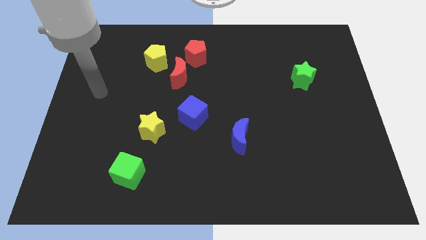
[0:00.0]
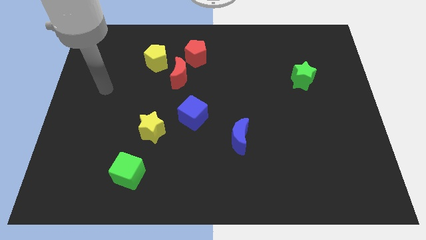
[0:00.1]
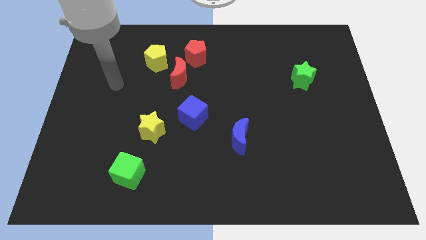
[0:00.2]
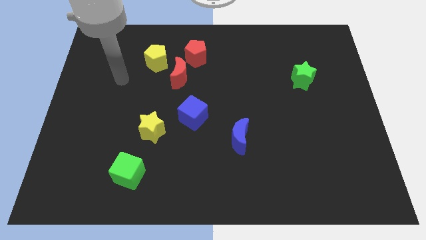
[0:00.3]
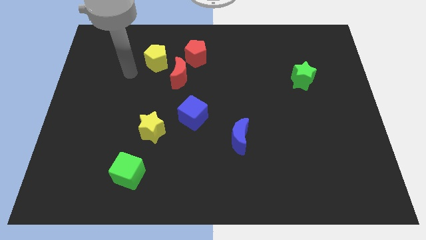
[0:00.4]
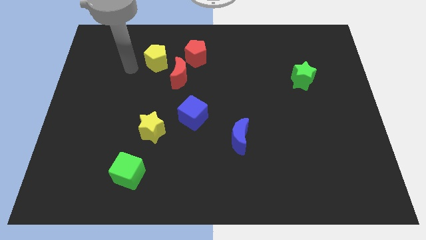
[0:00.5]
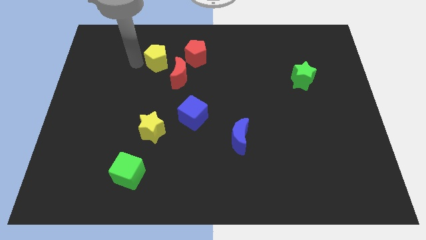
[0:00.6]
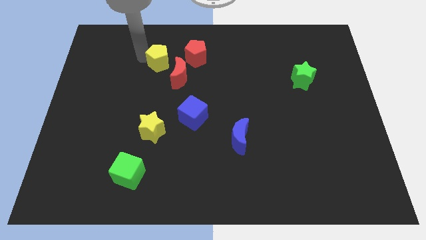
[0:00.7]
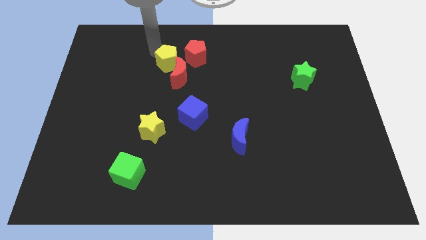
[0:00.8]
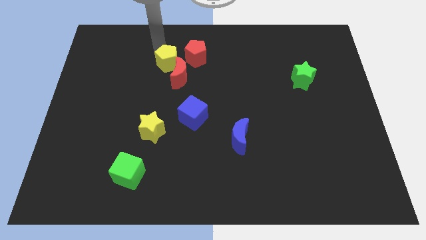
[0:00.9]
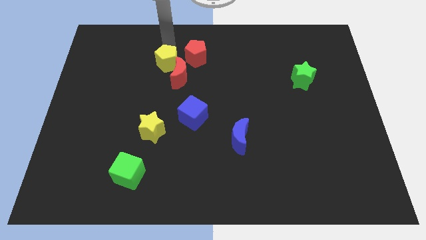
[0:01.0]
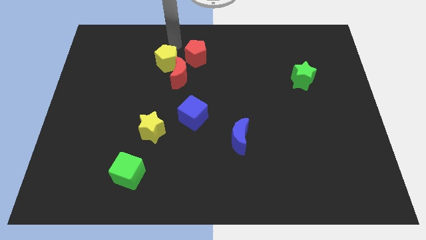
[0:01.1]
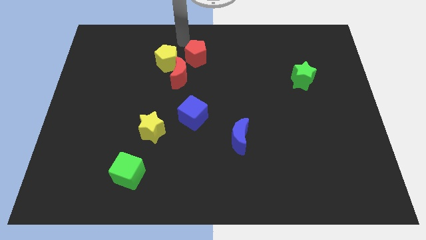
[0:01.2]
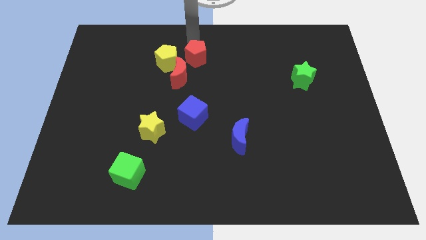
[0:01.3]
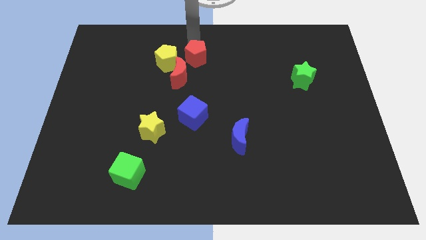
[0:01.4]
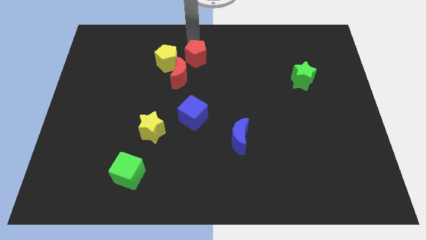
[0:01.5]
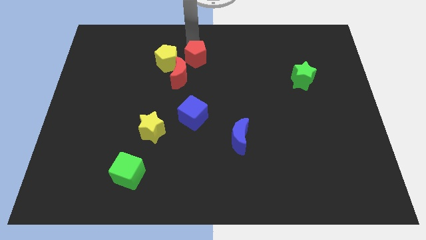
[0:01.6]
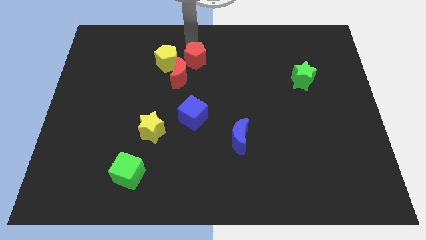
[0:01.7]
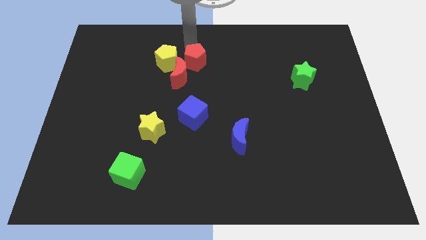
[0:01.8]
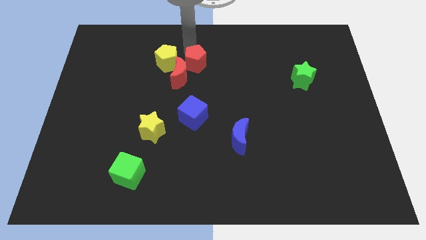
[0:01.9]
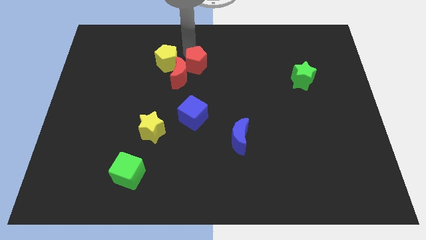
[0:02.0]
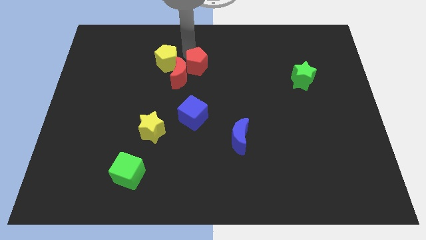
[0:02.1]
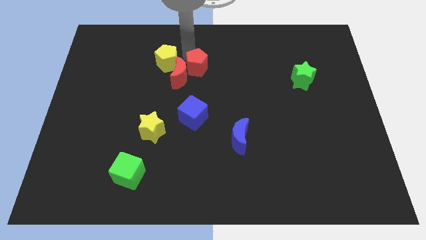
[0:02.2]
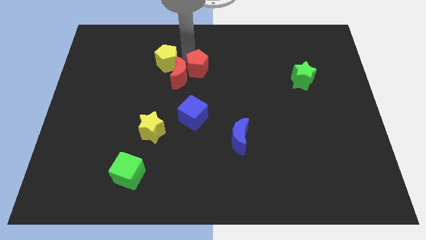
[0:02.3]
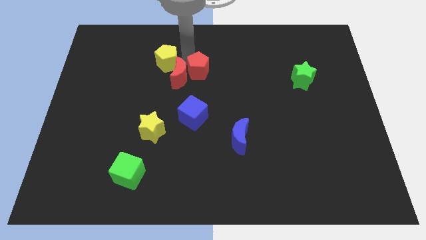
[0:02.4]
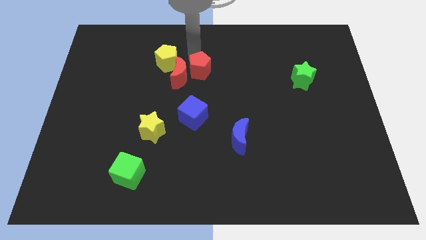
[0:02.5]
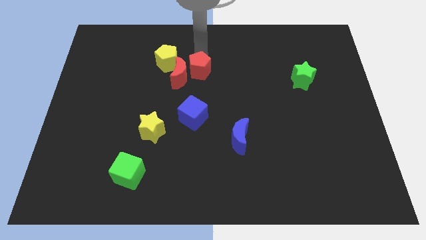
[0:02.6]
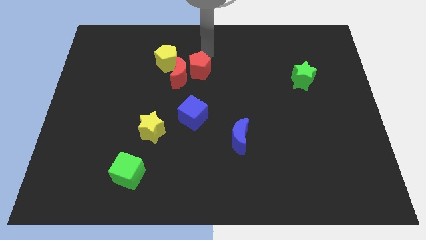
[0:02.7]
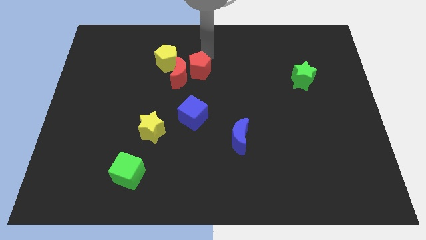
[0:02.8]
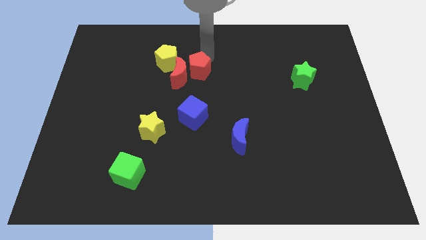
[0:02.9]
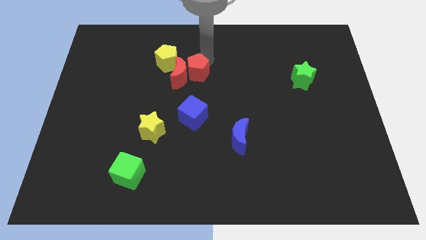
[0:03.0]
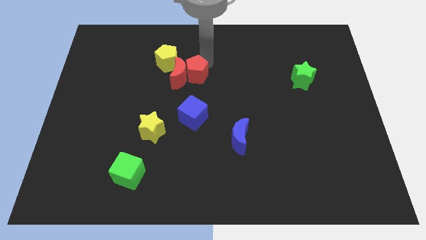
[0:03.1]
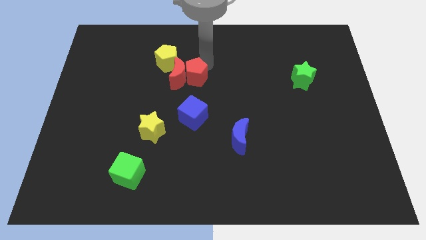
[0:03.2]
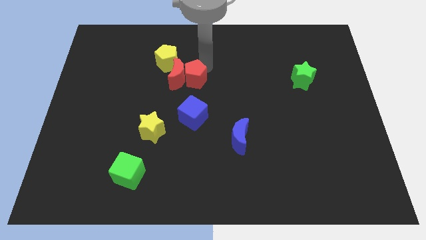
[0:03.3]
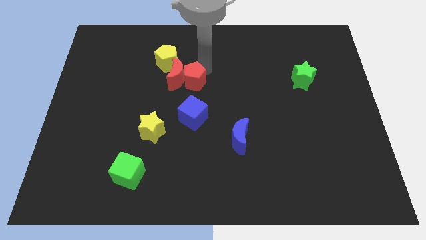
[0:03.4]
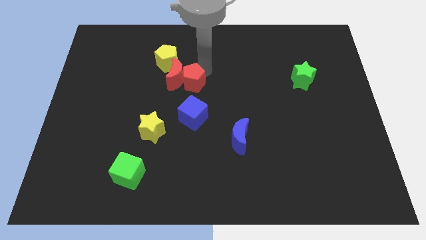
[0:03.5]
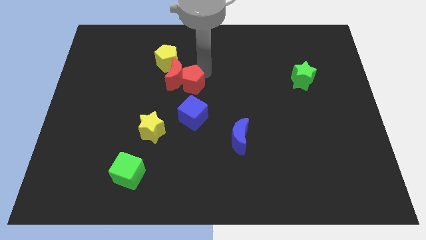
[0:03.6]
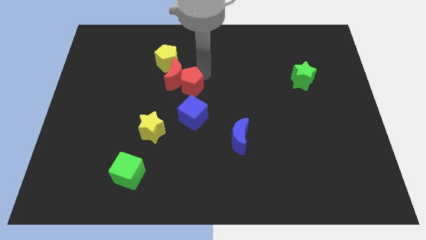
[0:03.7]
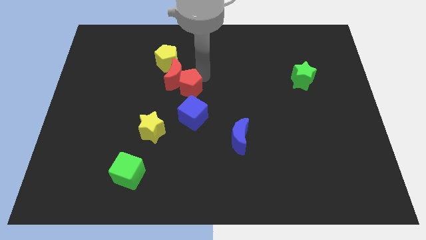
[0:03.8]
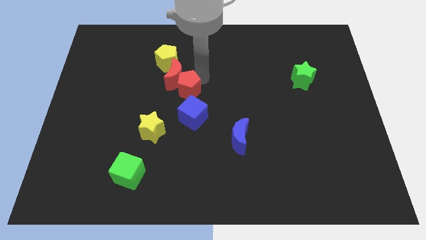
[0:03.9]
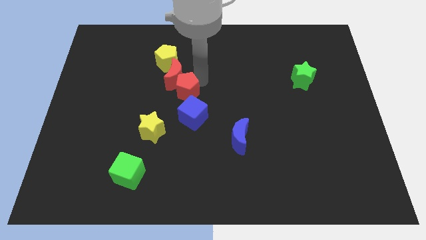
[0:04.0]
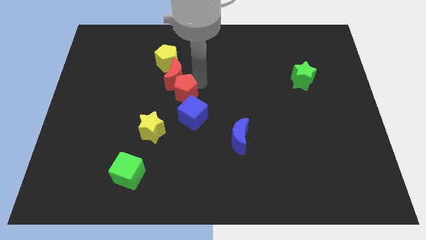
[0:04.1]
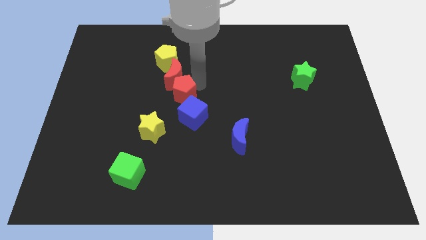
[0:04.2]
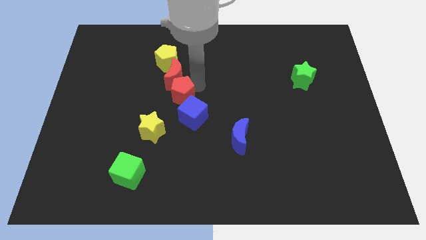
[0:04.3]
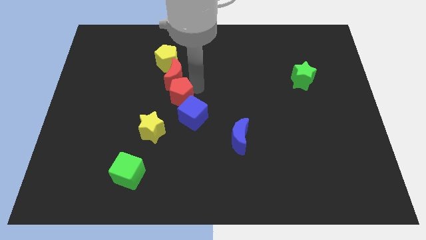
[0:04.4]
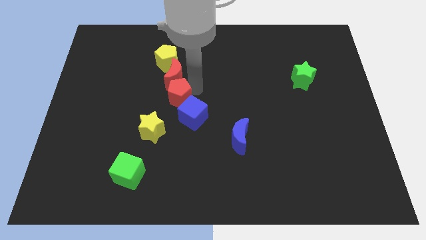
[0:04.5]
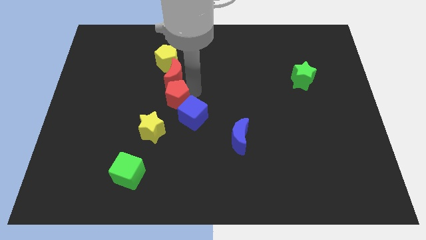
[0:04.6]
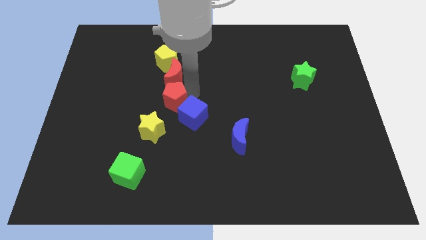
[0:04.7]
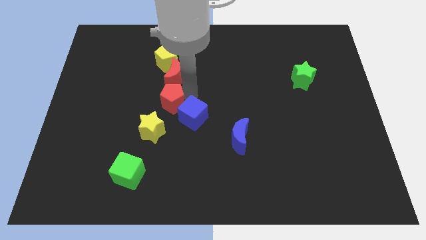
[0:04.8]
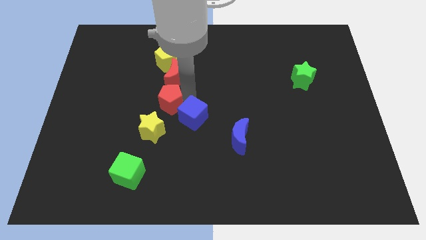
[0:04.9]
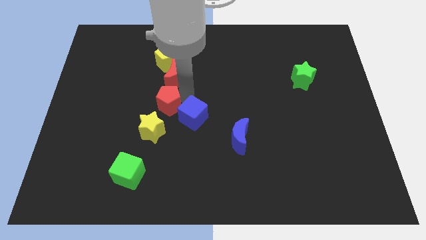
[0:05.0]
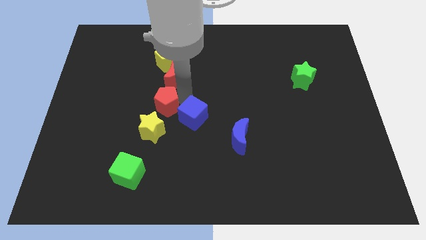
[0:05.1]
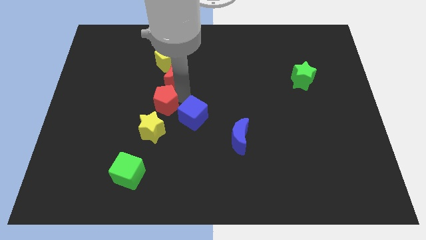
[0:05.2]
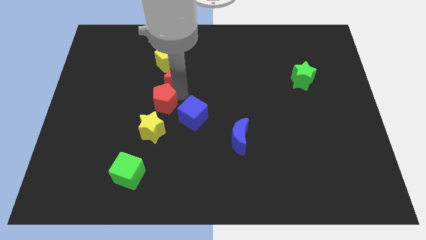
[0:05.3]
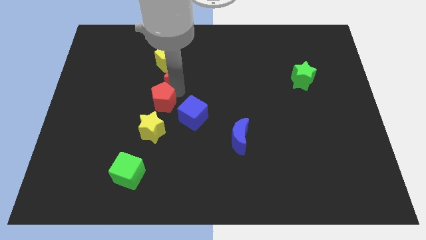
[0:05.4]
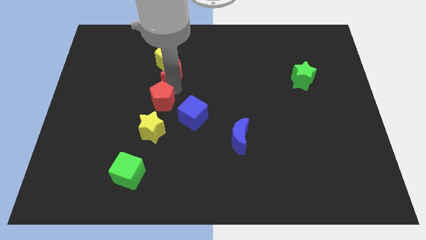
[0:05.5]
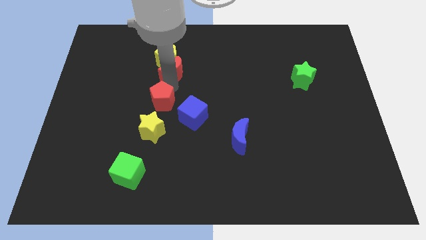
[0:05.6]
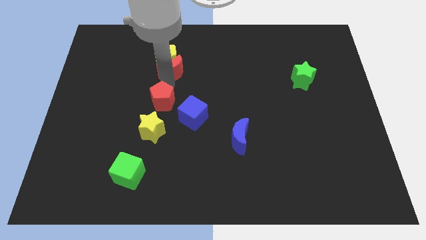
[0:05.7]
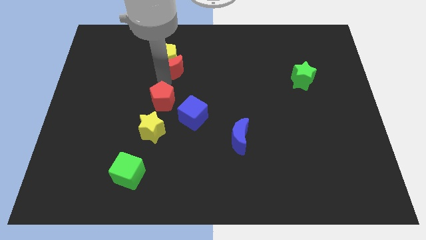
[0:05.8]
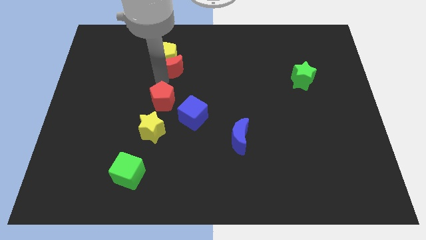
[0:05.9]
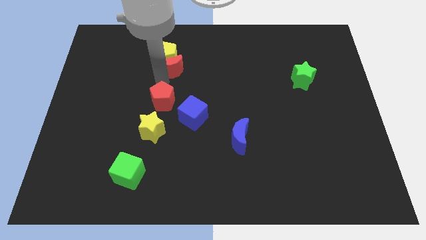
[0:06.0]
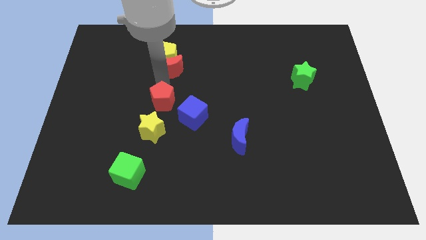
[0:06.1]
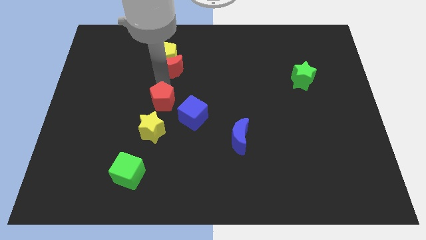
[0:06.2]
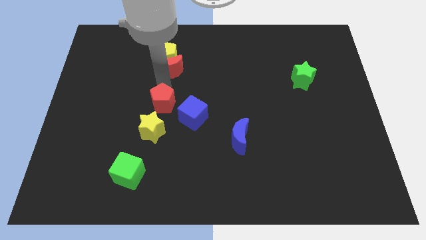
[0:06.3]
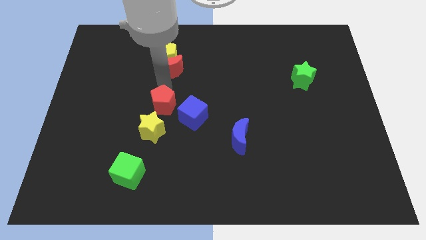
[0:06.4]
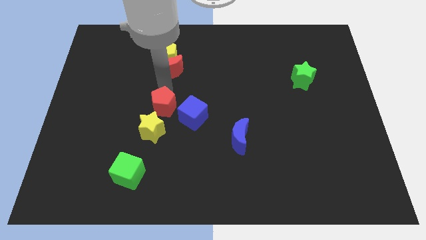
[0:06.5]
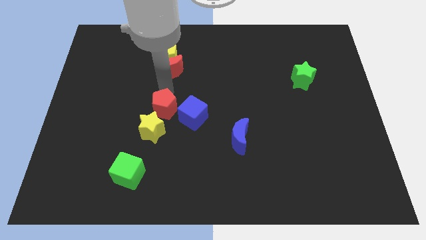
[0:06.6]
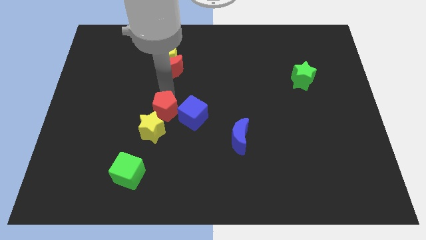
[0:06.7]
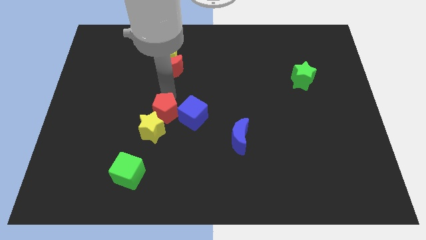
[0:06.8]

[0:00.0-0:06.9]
put the red pentagon next to the yellow star

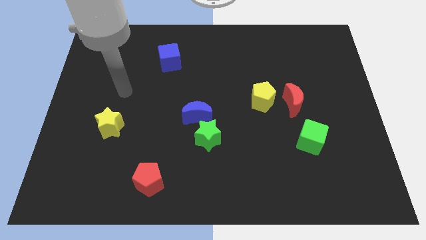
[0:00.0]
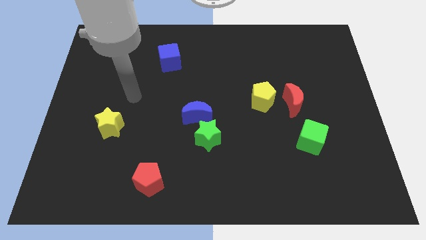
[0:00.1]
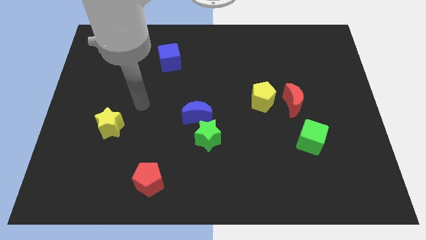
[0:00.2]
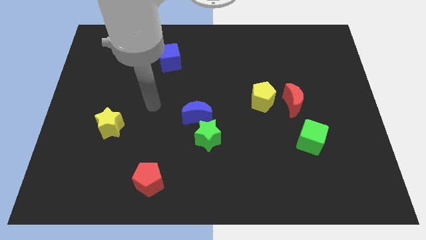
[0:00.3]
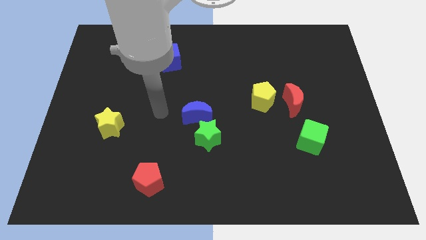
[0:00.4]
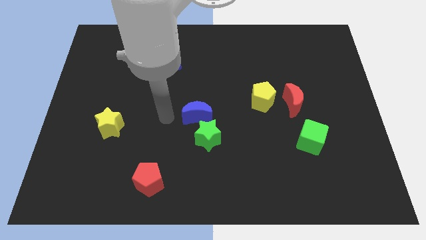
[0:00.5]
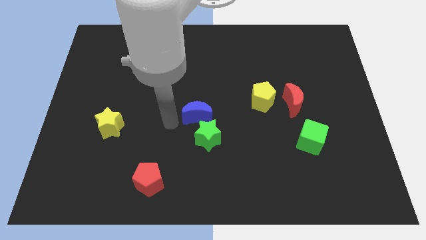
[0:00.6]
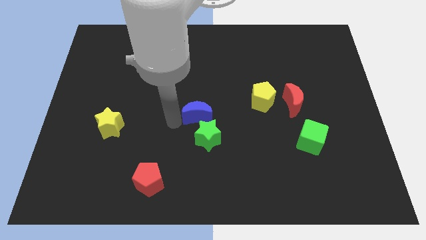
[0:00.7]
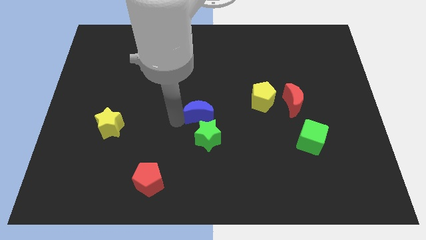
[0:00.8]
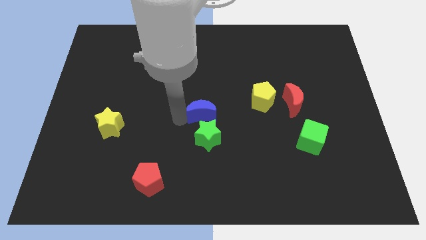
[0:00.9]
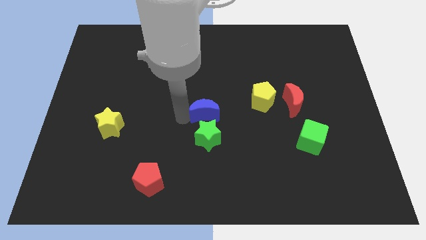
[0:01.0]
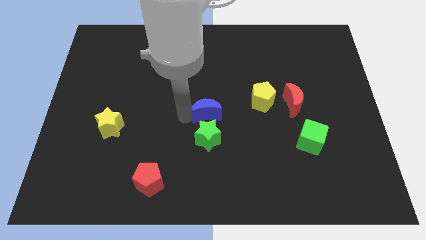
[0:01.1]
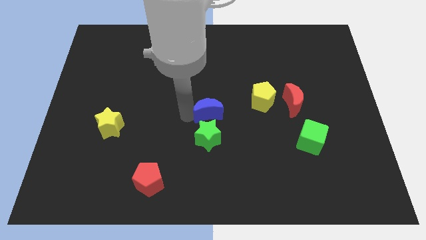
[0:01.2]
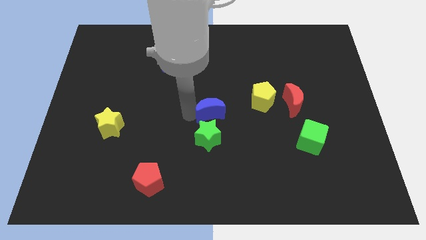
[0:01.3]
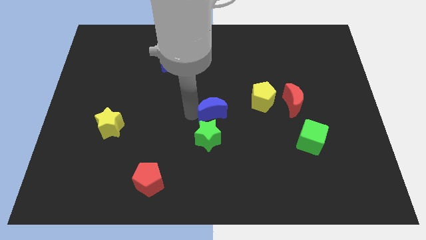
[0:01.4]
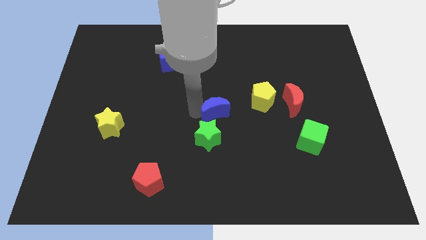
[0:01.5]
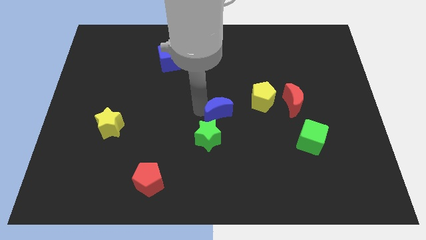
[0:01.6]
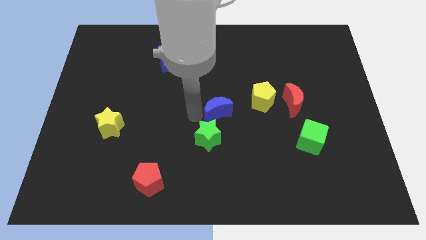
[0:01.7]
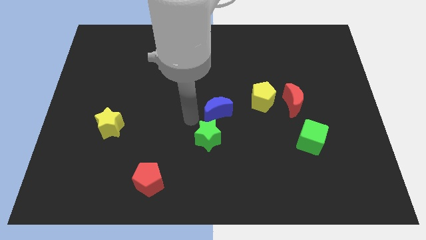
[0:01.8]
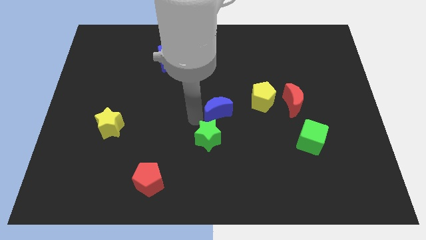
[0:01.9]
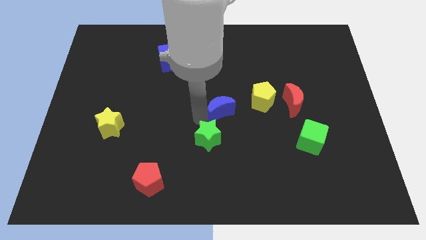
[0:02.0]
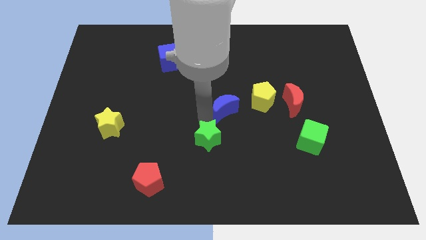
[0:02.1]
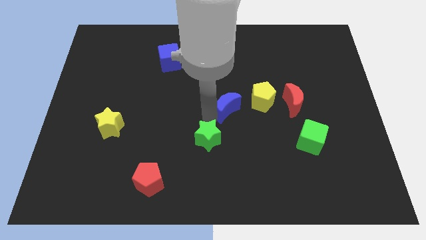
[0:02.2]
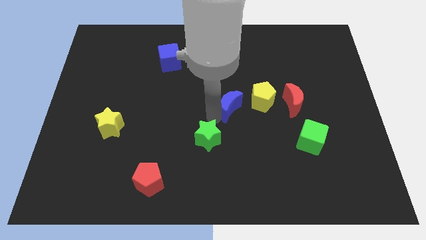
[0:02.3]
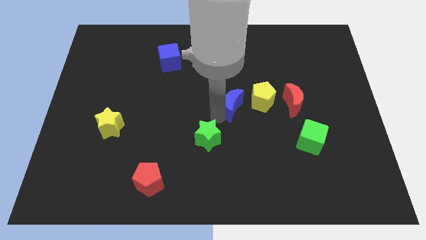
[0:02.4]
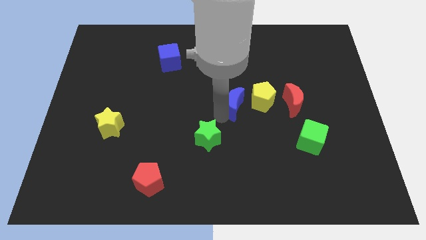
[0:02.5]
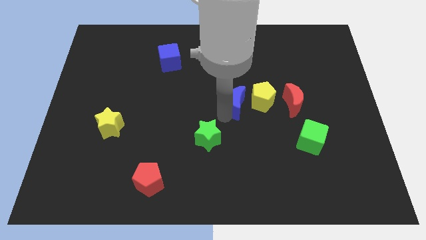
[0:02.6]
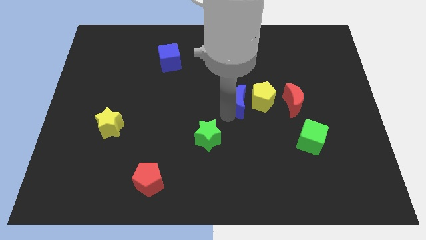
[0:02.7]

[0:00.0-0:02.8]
put the blue moon close to the yellow pentagon
